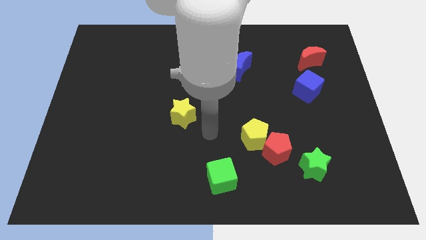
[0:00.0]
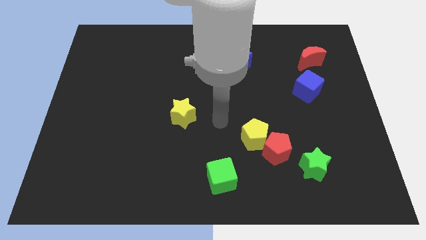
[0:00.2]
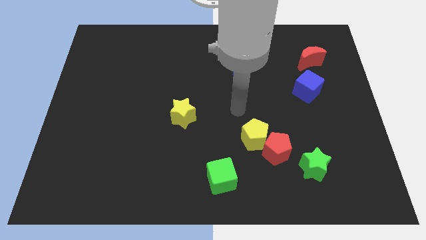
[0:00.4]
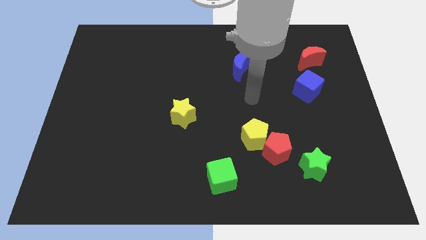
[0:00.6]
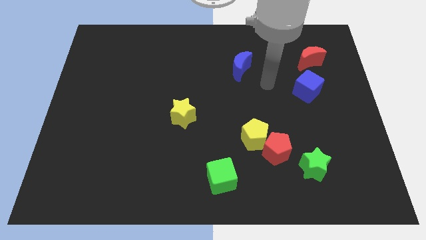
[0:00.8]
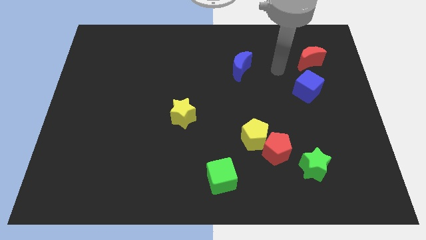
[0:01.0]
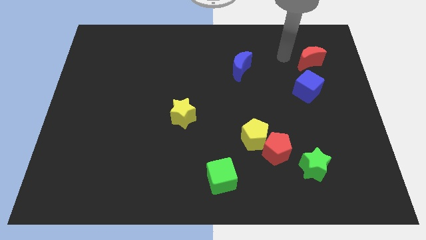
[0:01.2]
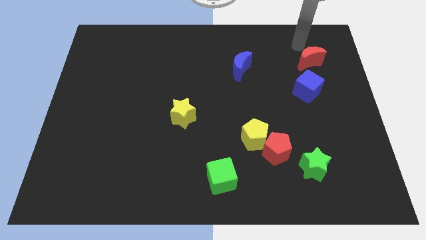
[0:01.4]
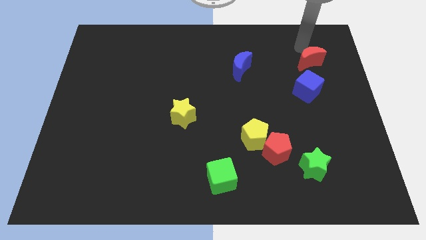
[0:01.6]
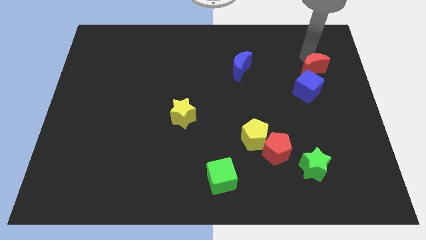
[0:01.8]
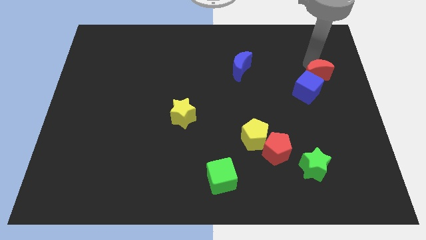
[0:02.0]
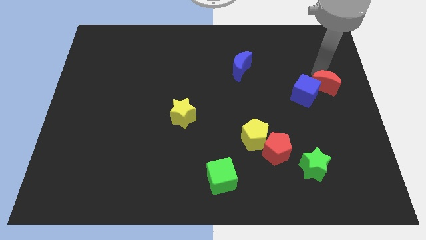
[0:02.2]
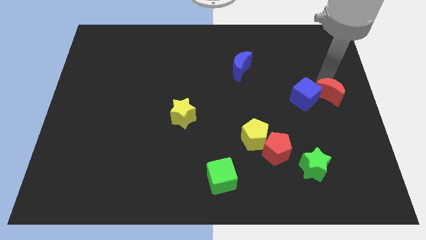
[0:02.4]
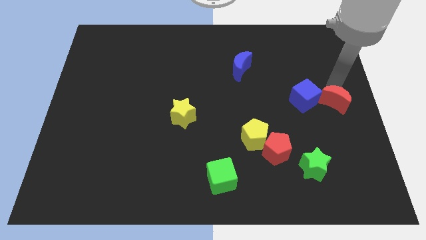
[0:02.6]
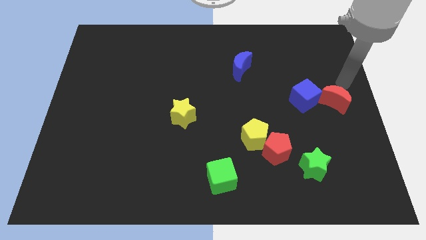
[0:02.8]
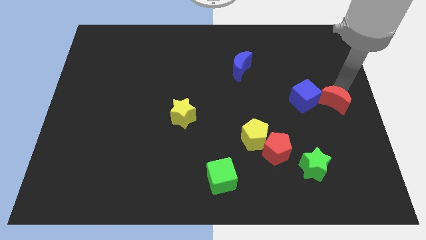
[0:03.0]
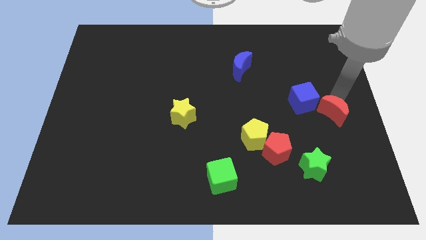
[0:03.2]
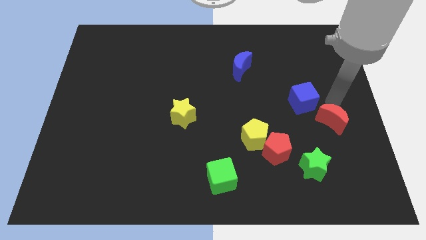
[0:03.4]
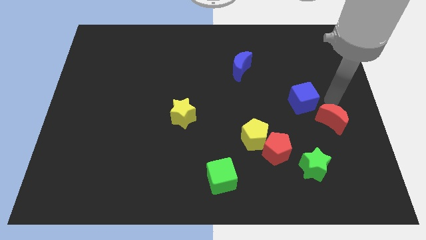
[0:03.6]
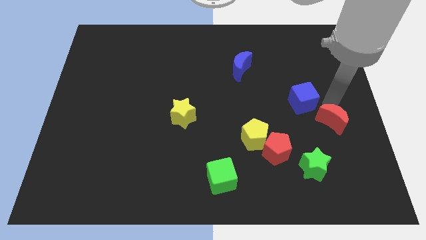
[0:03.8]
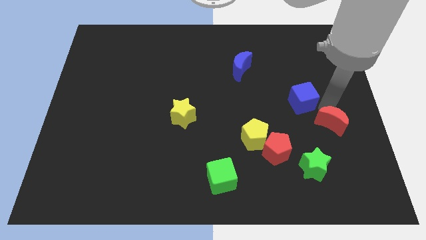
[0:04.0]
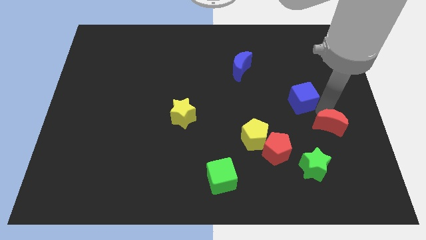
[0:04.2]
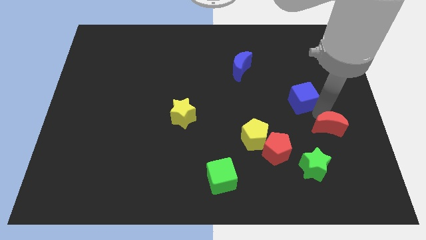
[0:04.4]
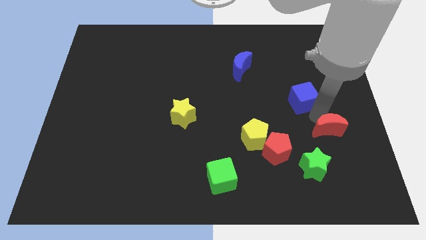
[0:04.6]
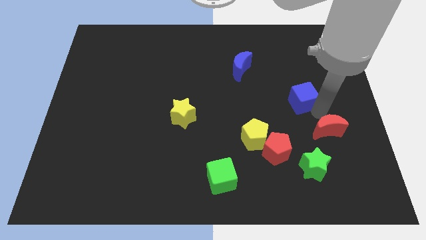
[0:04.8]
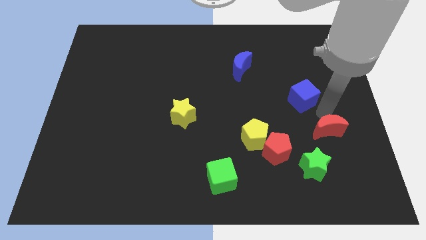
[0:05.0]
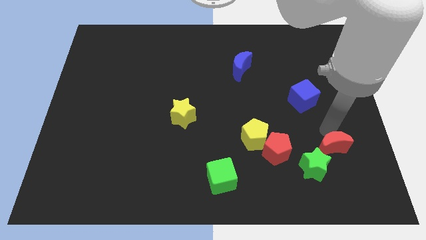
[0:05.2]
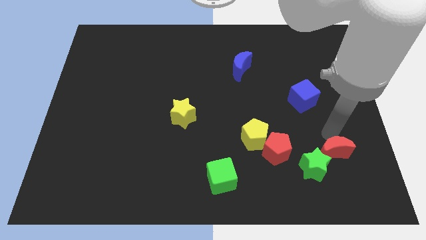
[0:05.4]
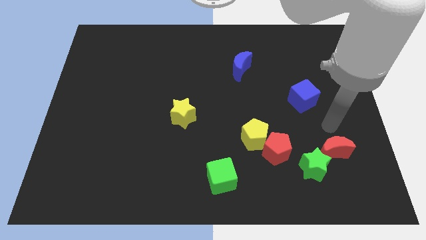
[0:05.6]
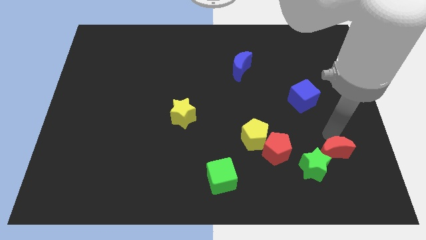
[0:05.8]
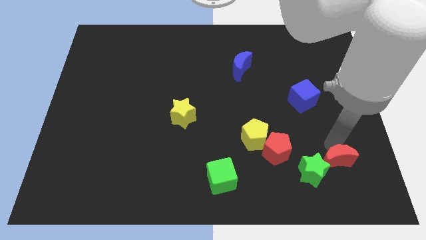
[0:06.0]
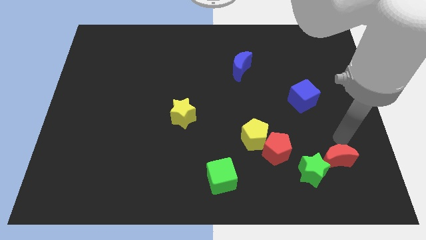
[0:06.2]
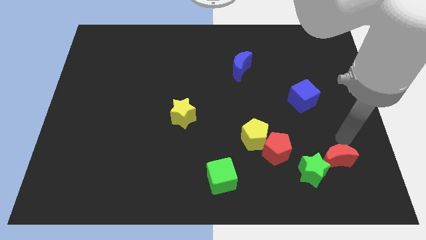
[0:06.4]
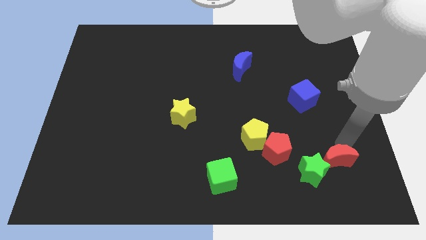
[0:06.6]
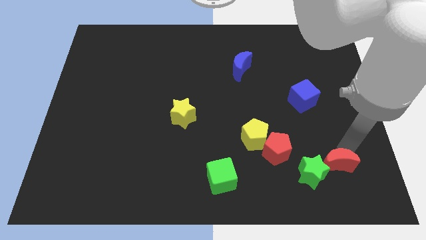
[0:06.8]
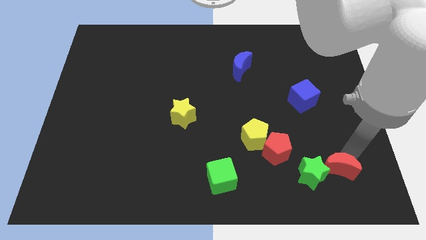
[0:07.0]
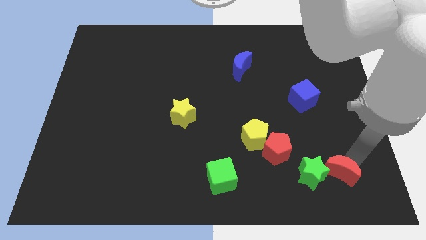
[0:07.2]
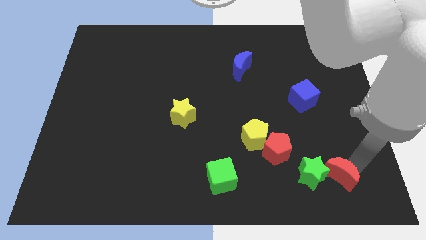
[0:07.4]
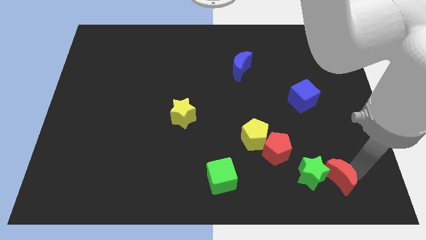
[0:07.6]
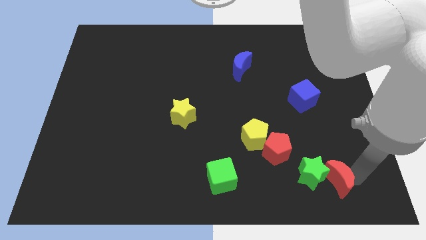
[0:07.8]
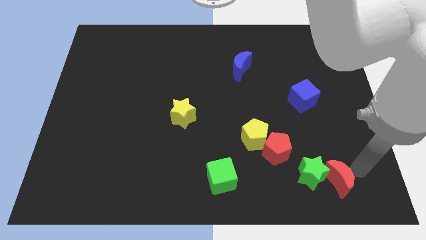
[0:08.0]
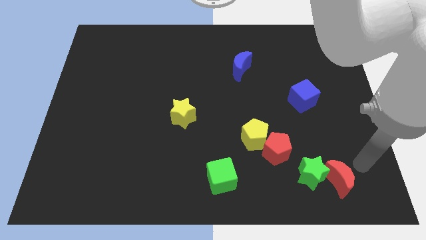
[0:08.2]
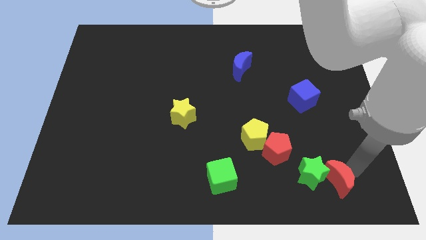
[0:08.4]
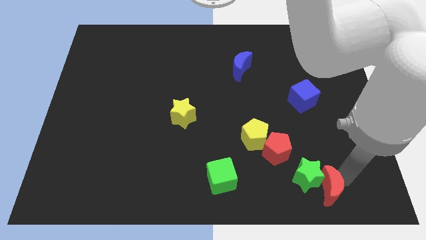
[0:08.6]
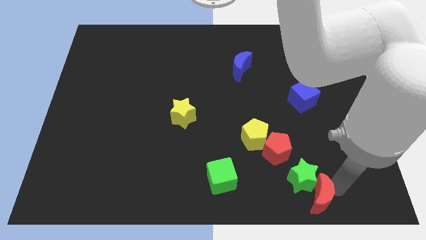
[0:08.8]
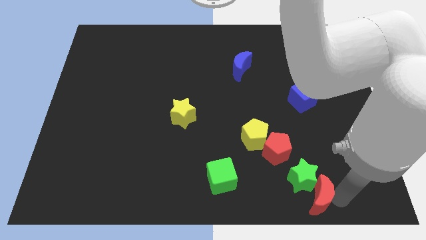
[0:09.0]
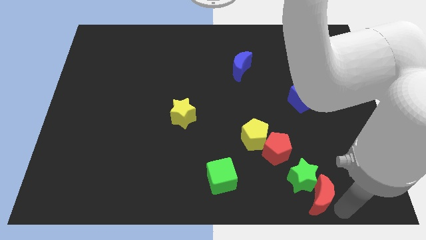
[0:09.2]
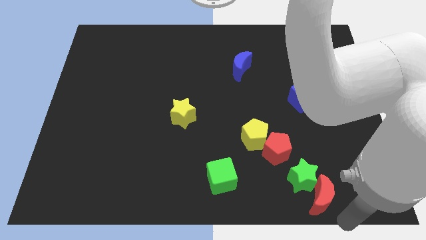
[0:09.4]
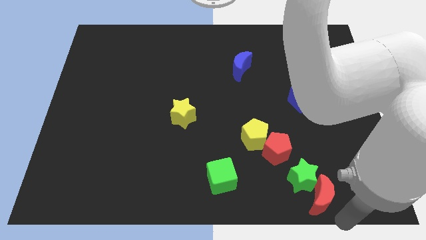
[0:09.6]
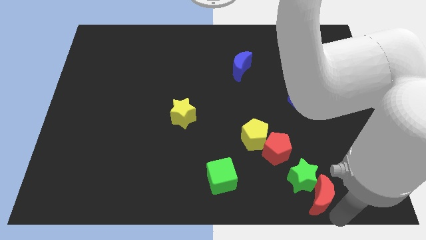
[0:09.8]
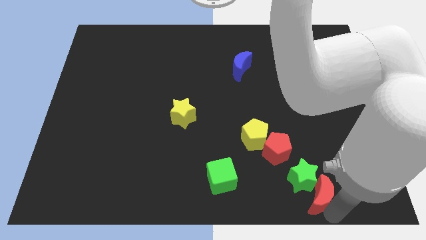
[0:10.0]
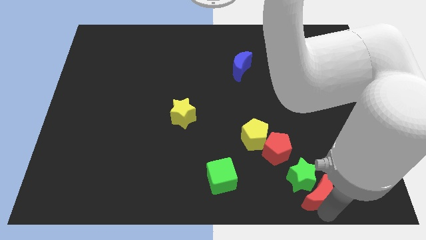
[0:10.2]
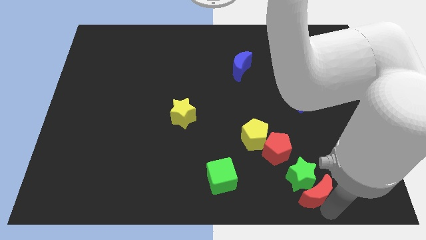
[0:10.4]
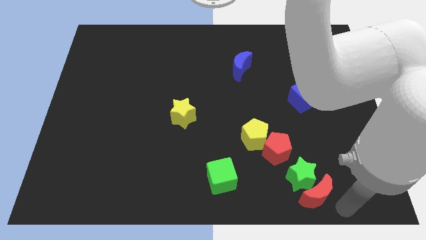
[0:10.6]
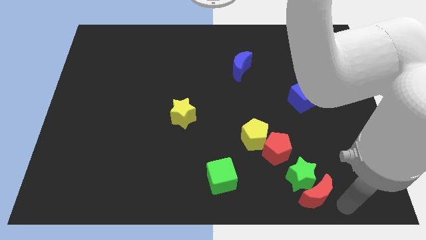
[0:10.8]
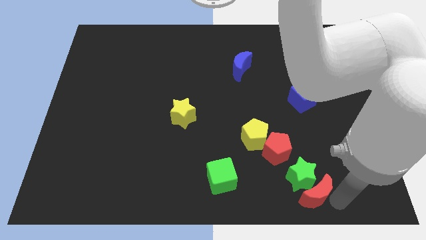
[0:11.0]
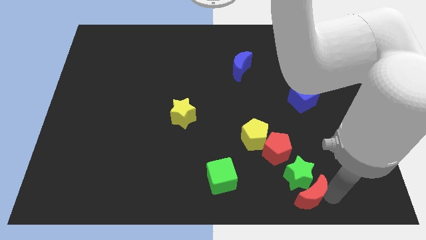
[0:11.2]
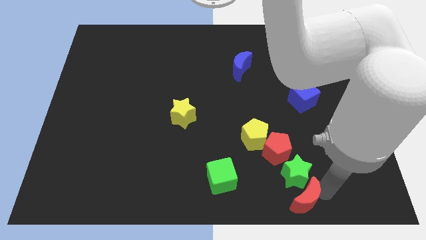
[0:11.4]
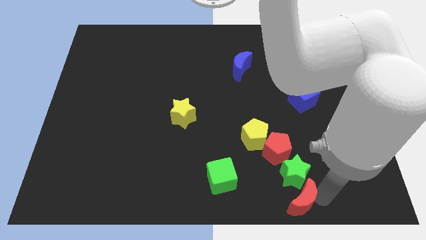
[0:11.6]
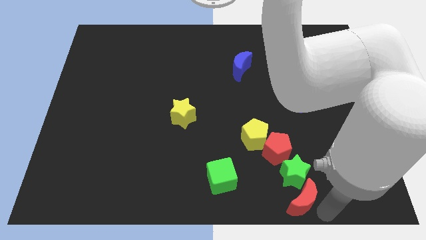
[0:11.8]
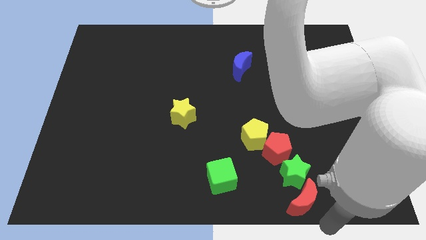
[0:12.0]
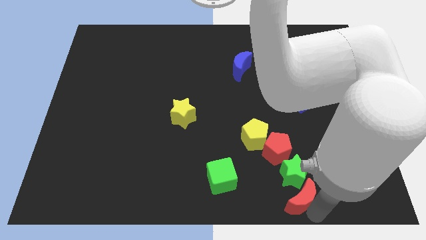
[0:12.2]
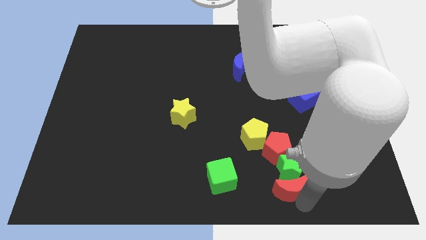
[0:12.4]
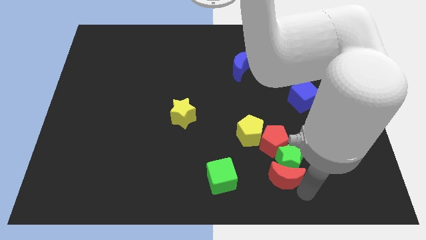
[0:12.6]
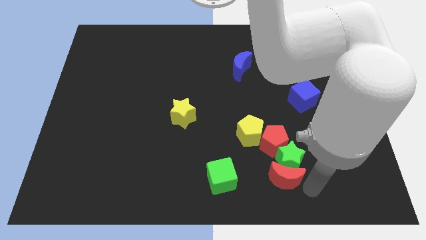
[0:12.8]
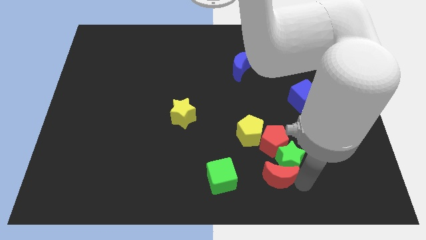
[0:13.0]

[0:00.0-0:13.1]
slide the red moon left of the green star

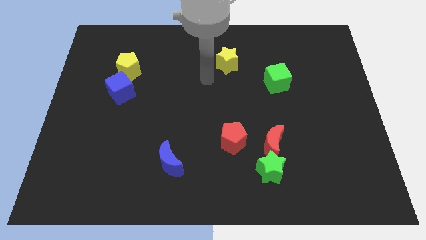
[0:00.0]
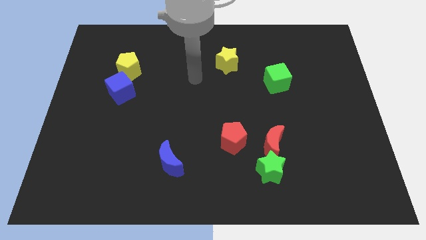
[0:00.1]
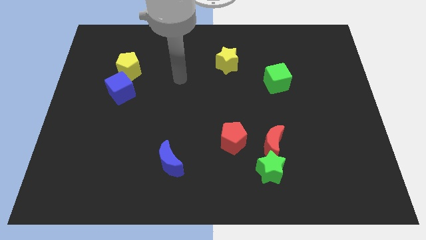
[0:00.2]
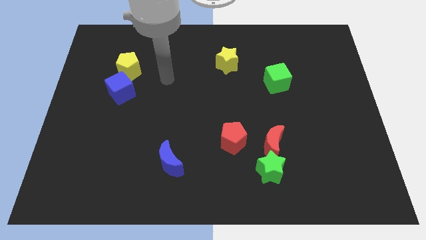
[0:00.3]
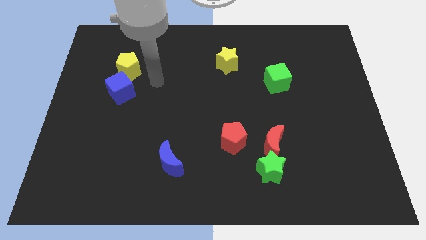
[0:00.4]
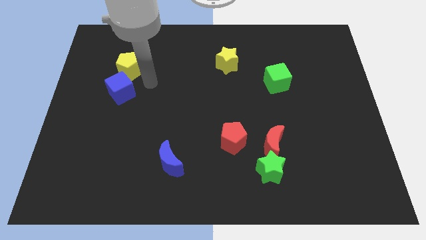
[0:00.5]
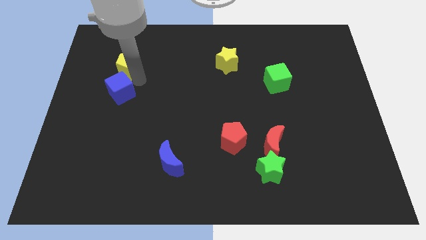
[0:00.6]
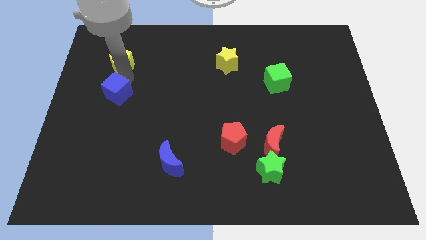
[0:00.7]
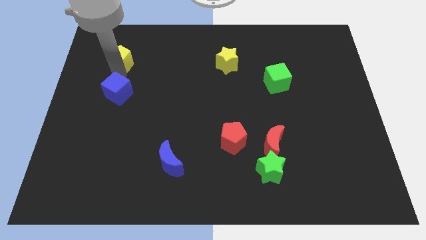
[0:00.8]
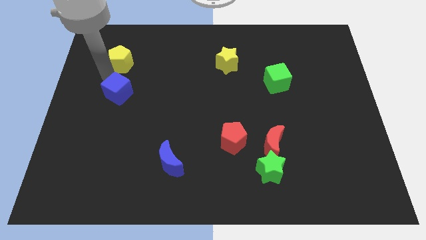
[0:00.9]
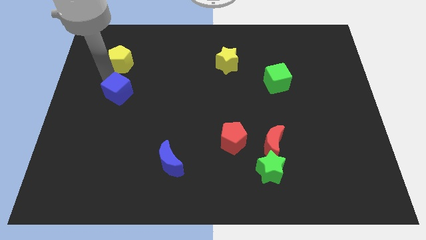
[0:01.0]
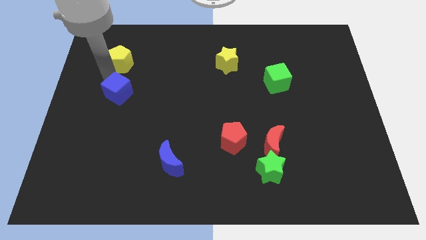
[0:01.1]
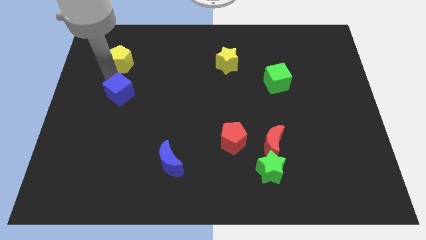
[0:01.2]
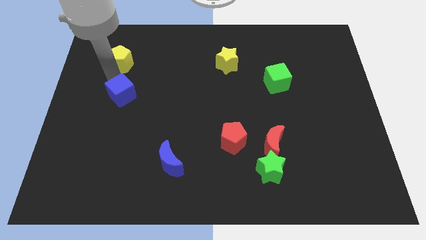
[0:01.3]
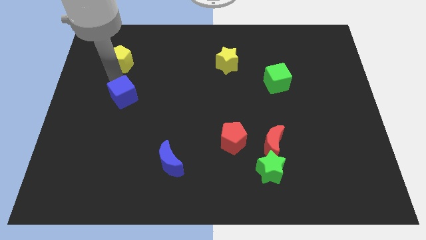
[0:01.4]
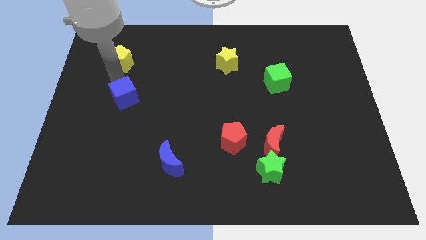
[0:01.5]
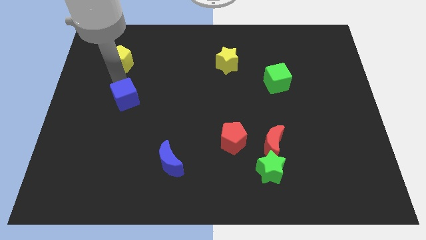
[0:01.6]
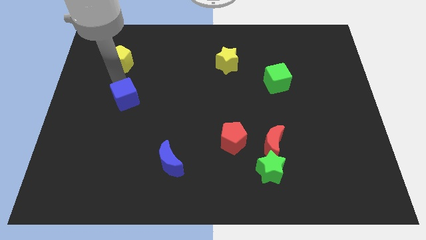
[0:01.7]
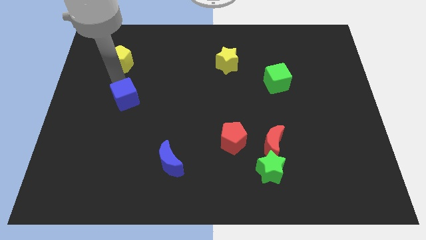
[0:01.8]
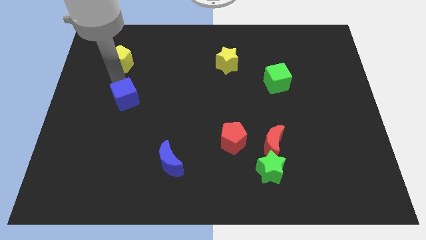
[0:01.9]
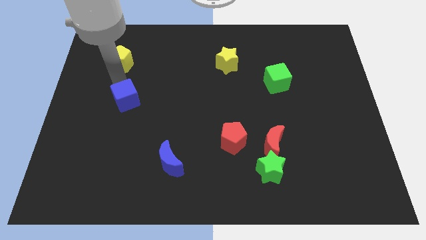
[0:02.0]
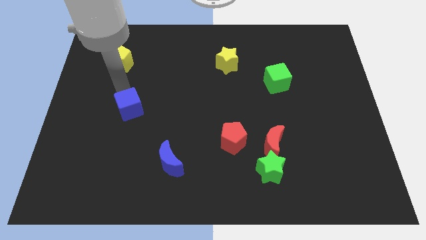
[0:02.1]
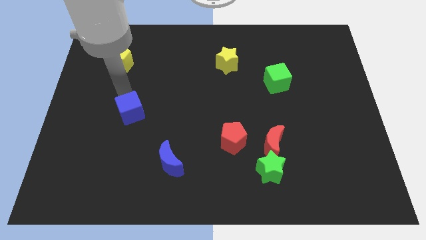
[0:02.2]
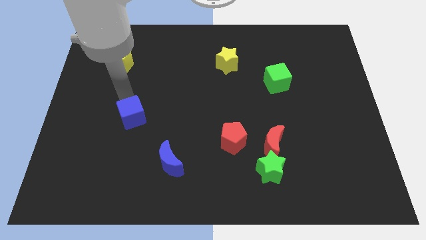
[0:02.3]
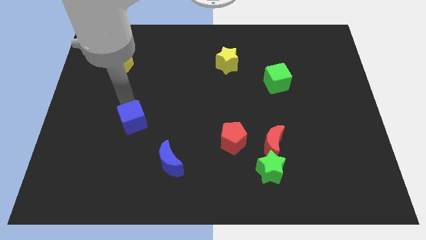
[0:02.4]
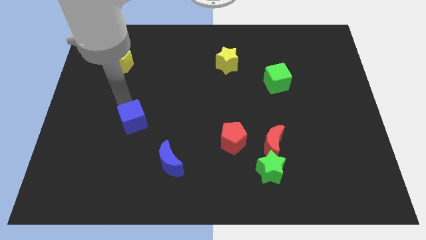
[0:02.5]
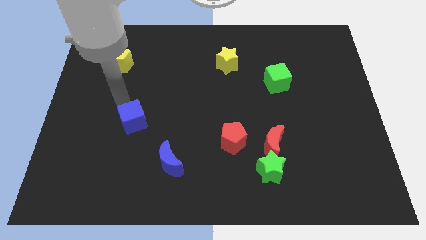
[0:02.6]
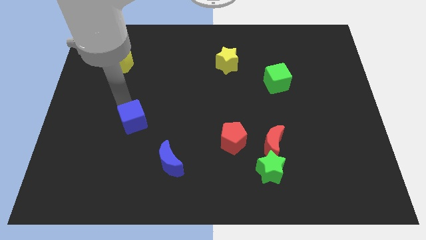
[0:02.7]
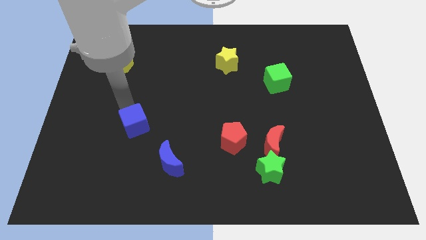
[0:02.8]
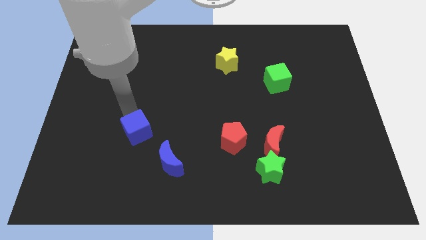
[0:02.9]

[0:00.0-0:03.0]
slide the blue cube diagonally up and to the left of the blue moon
